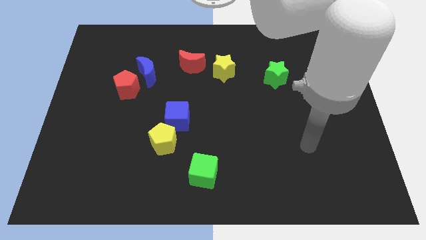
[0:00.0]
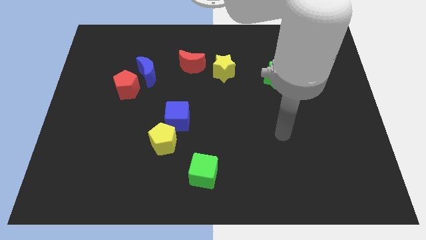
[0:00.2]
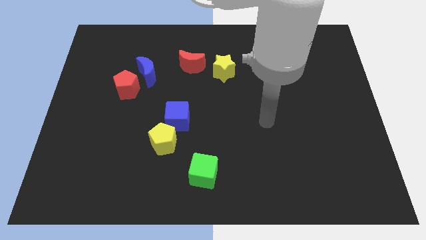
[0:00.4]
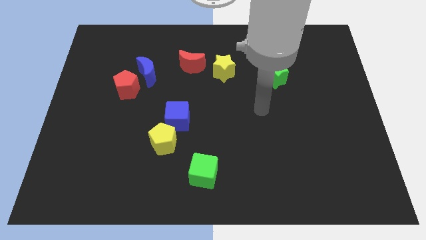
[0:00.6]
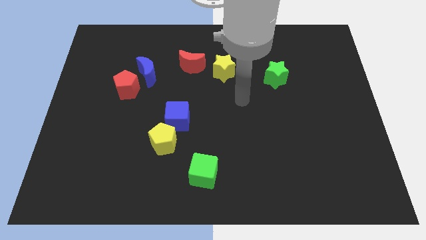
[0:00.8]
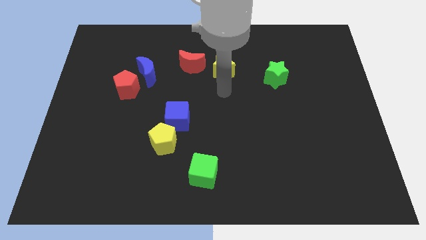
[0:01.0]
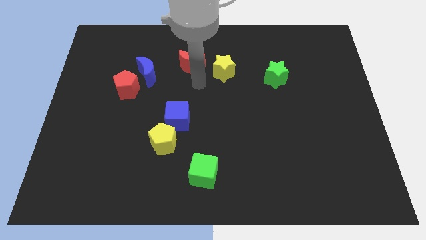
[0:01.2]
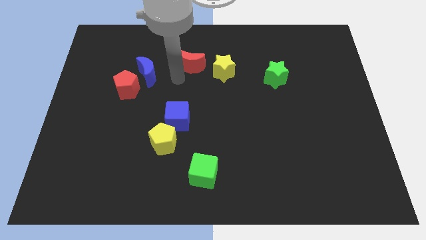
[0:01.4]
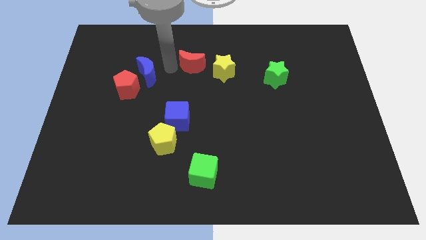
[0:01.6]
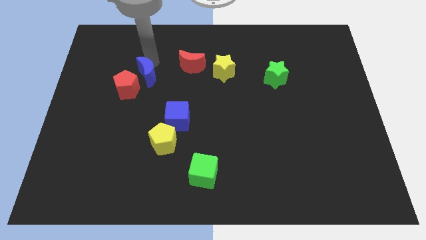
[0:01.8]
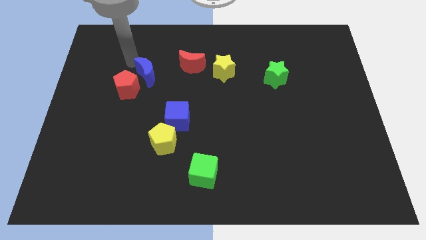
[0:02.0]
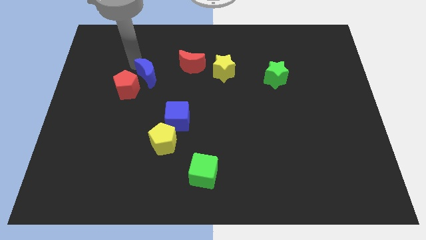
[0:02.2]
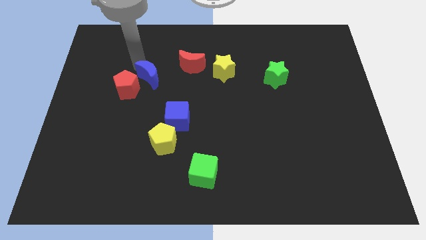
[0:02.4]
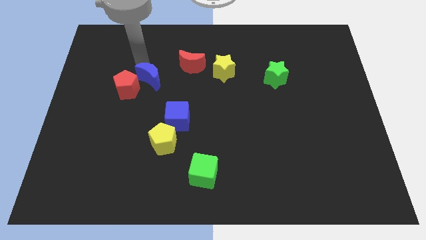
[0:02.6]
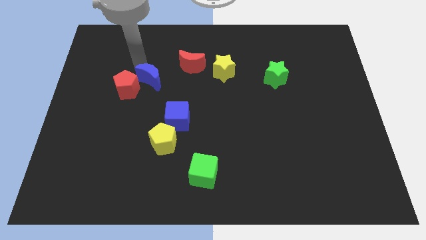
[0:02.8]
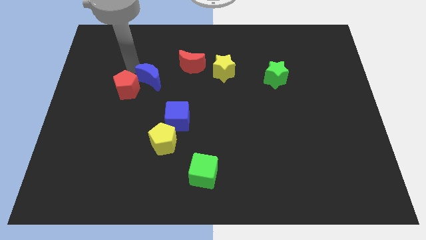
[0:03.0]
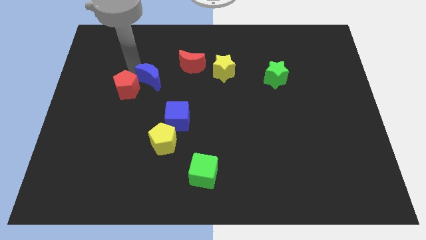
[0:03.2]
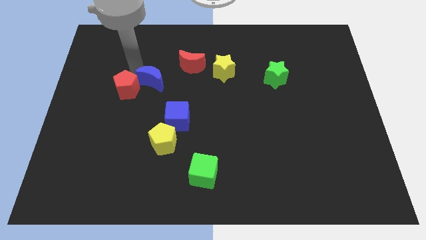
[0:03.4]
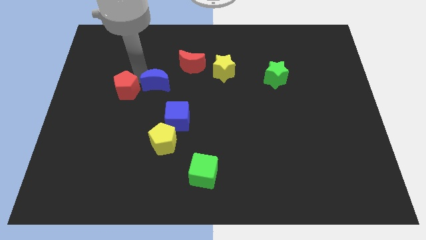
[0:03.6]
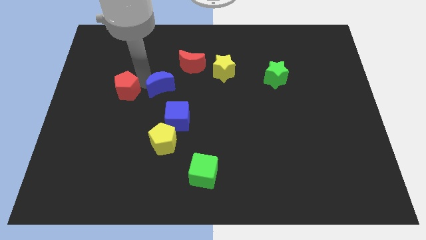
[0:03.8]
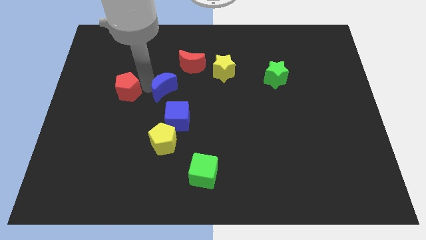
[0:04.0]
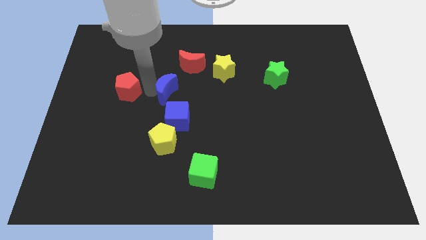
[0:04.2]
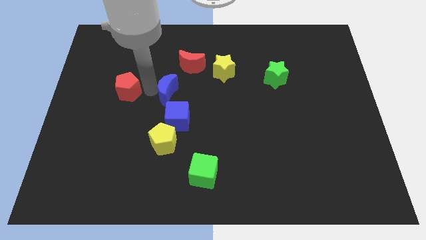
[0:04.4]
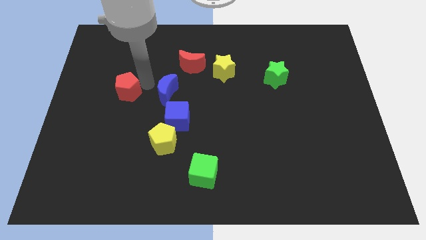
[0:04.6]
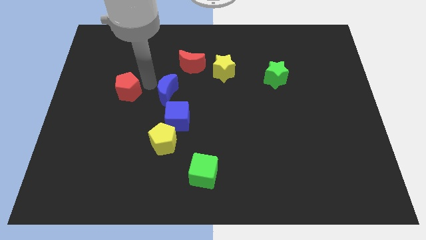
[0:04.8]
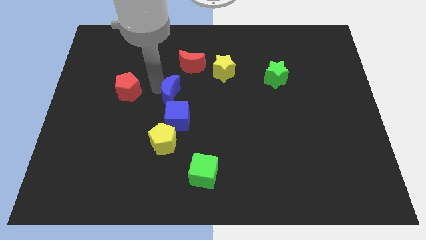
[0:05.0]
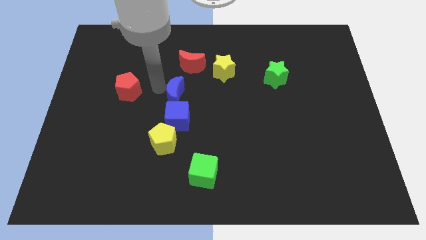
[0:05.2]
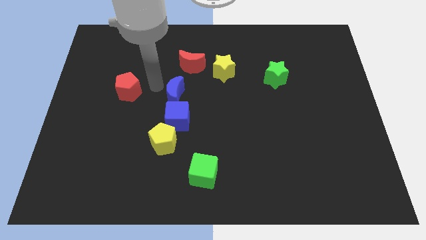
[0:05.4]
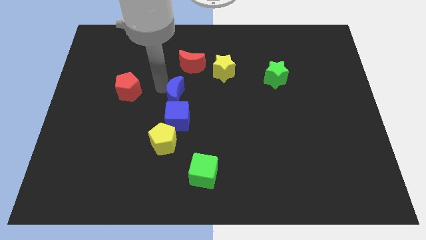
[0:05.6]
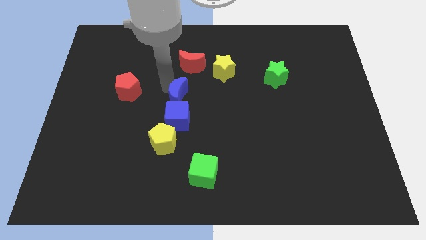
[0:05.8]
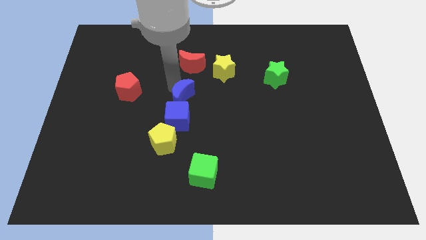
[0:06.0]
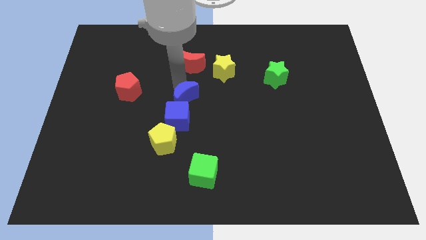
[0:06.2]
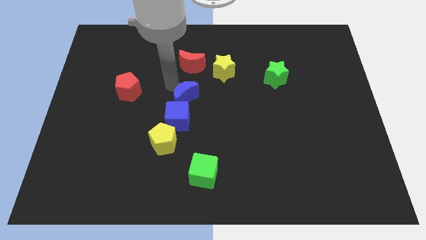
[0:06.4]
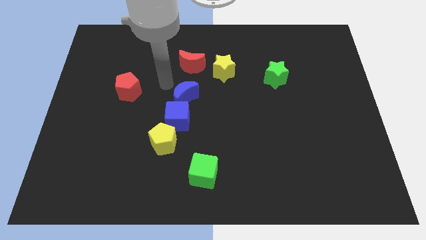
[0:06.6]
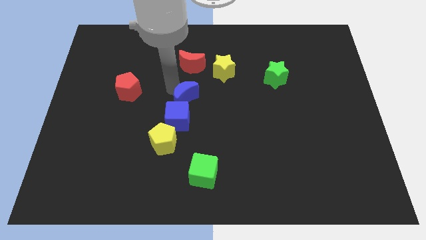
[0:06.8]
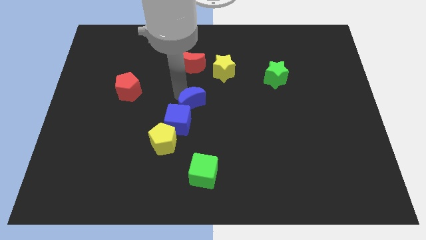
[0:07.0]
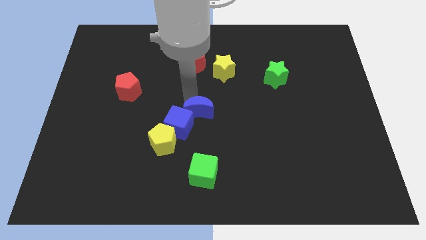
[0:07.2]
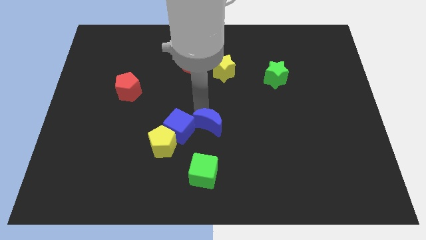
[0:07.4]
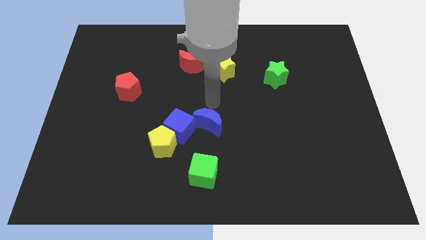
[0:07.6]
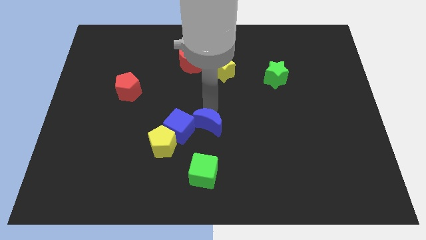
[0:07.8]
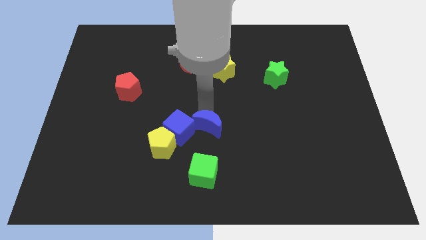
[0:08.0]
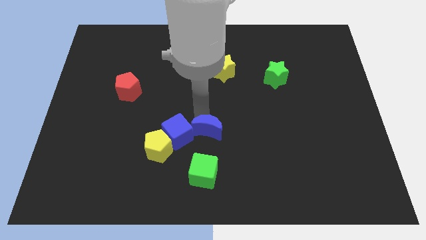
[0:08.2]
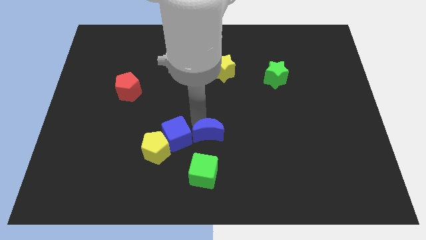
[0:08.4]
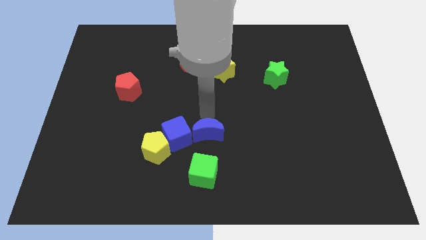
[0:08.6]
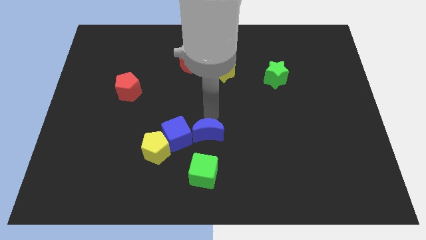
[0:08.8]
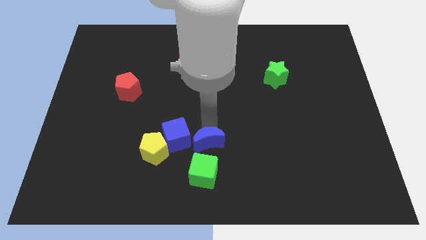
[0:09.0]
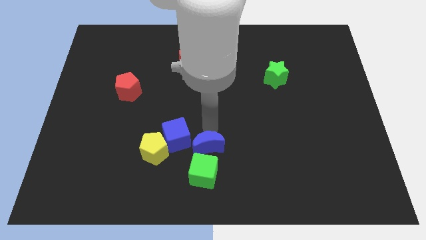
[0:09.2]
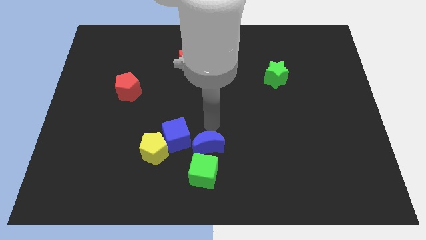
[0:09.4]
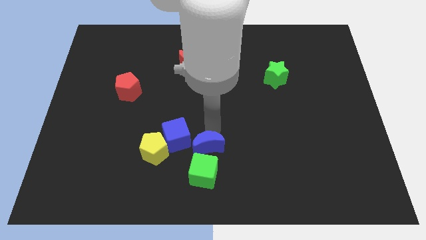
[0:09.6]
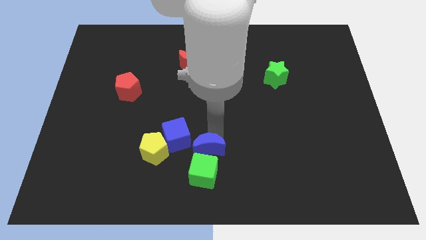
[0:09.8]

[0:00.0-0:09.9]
move the blue moon next to the green cube

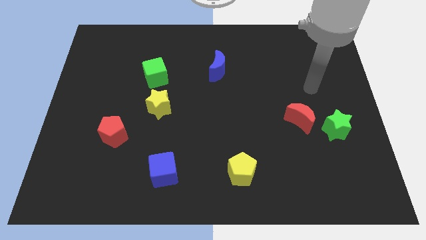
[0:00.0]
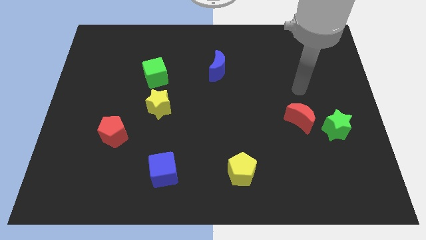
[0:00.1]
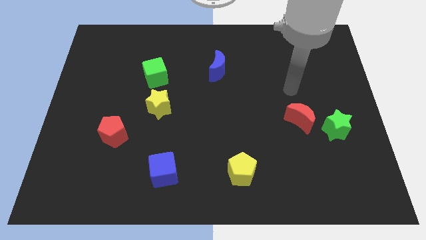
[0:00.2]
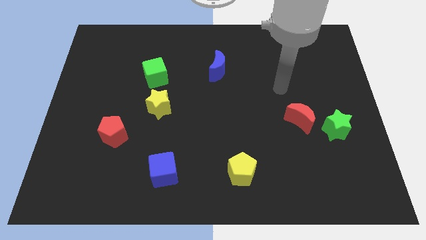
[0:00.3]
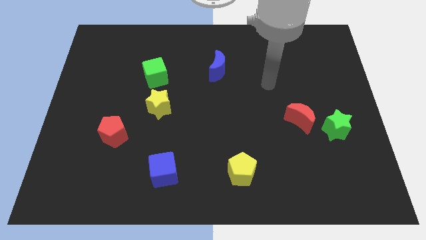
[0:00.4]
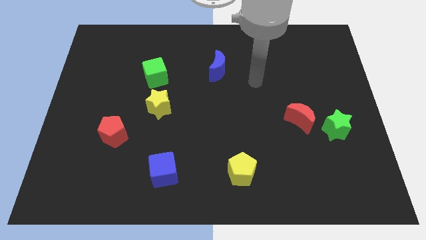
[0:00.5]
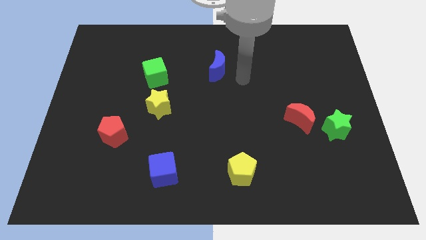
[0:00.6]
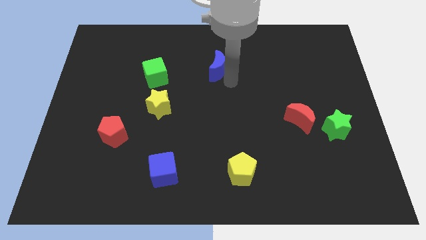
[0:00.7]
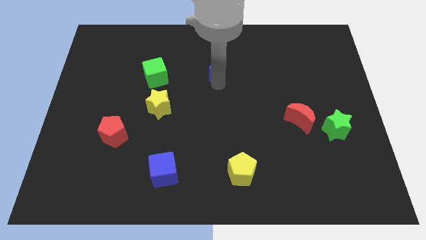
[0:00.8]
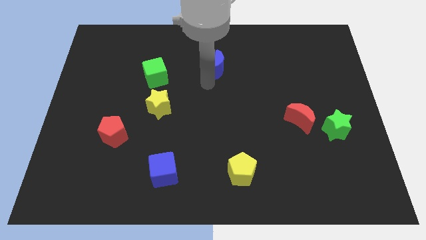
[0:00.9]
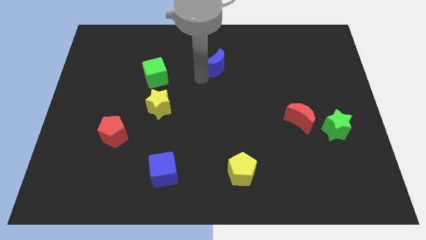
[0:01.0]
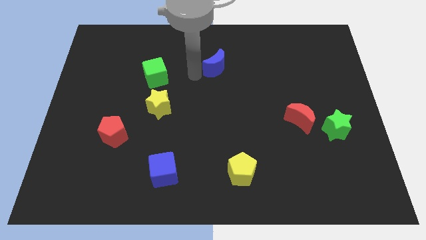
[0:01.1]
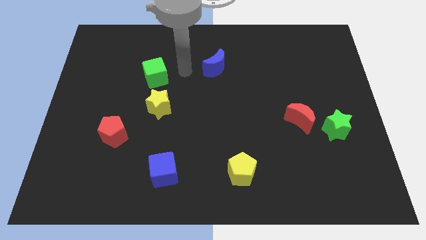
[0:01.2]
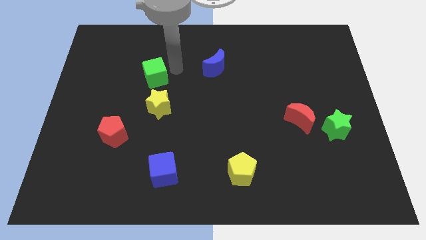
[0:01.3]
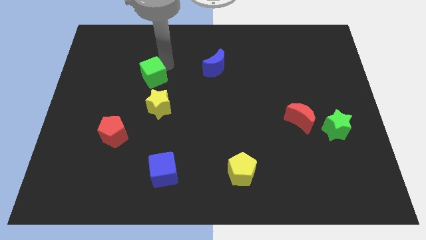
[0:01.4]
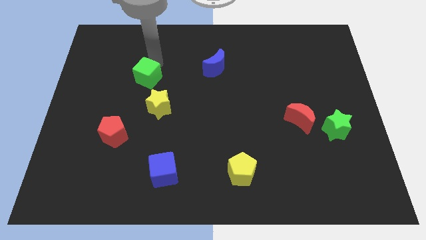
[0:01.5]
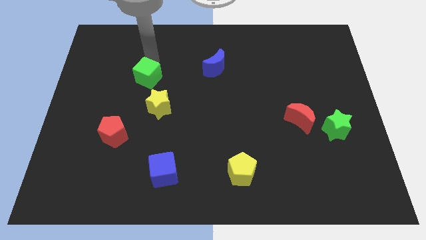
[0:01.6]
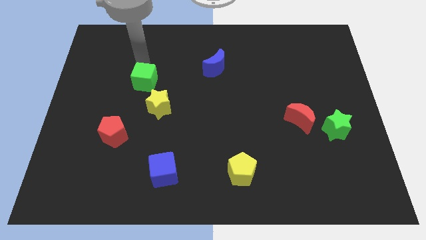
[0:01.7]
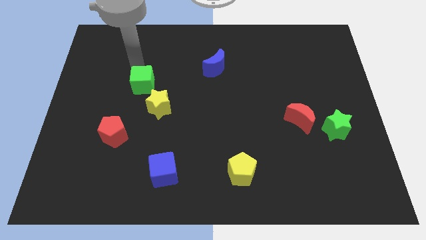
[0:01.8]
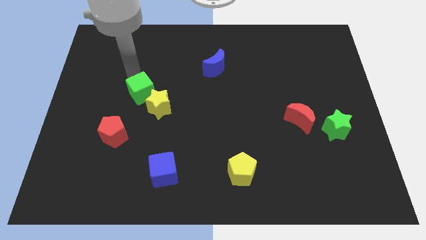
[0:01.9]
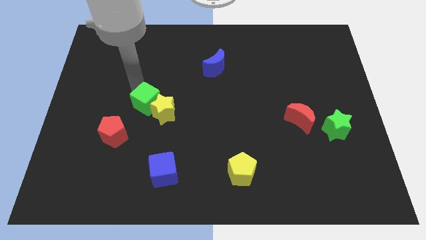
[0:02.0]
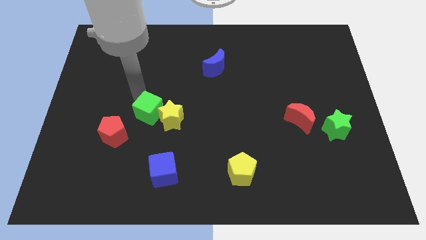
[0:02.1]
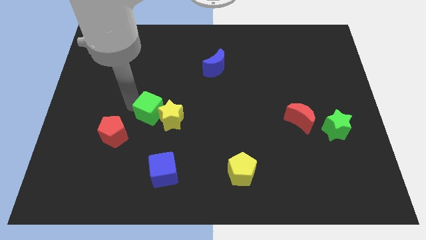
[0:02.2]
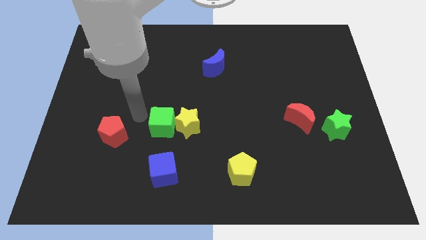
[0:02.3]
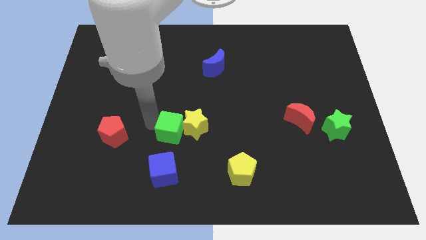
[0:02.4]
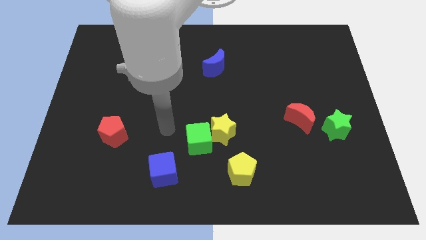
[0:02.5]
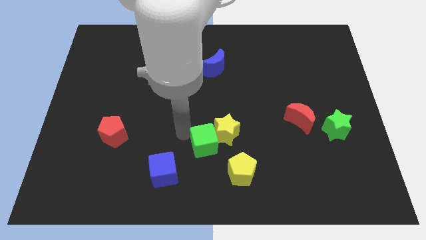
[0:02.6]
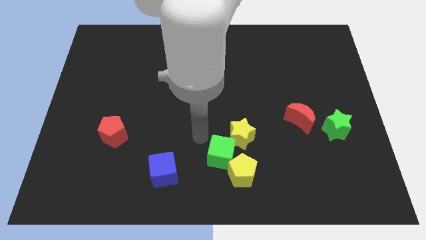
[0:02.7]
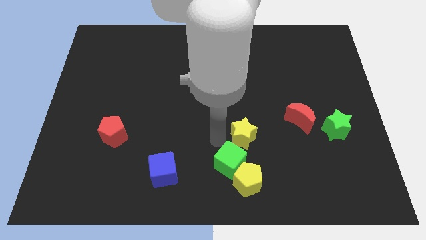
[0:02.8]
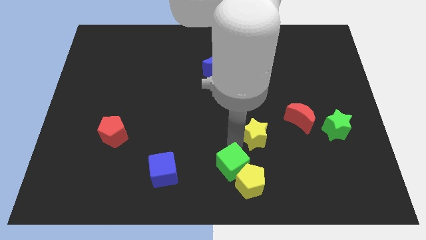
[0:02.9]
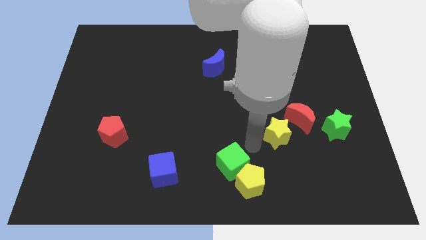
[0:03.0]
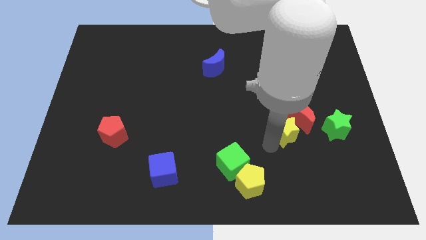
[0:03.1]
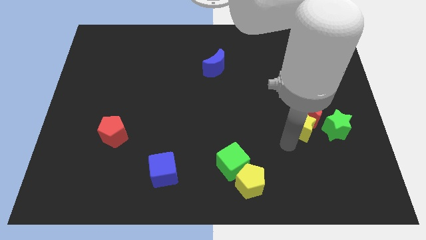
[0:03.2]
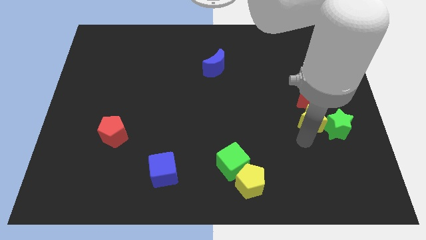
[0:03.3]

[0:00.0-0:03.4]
move the yellow star to the green star
